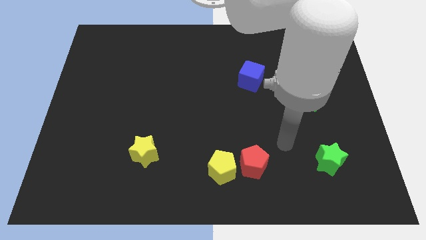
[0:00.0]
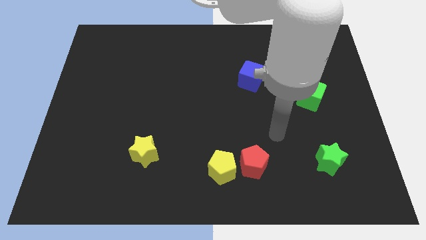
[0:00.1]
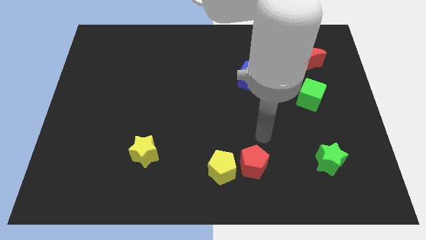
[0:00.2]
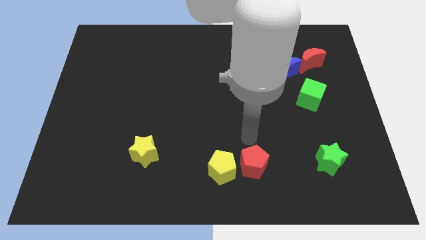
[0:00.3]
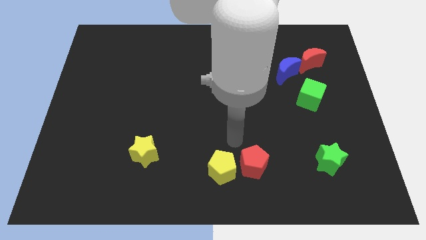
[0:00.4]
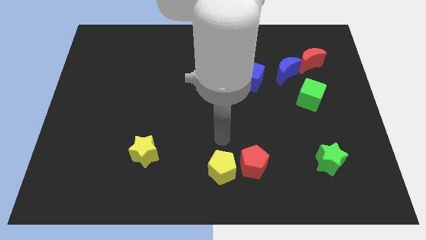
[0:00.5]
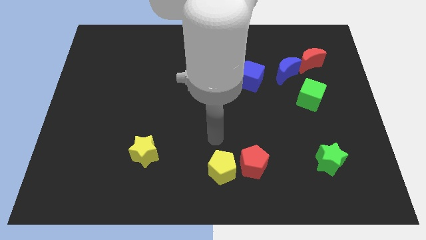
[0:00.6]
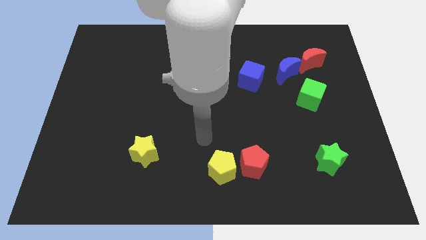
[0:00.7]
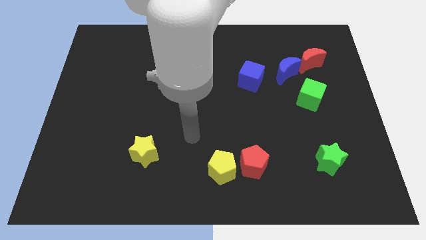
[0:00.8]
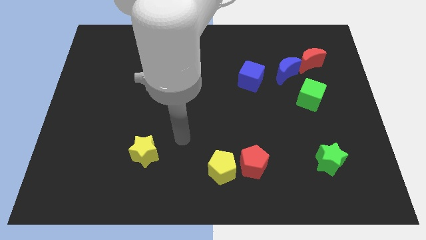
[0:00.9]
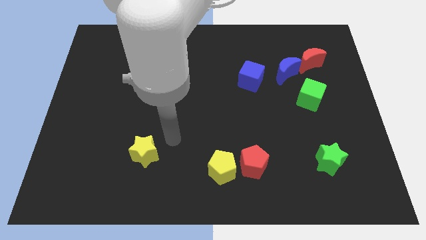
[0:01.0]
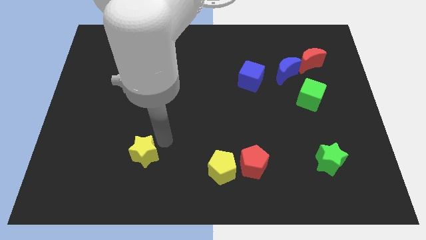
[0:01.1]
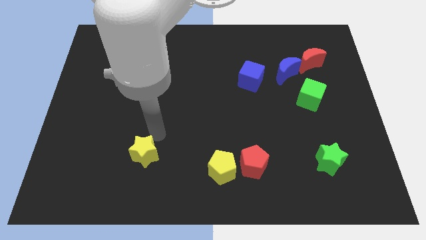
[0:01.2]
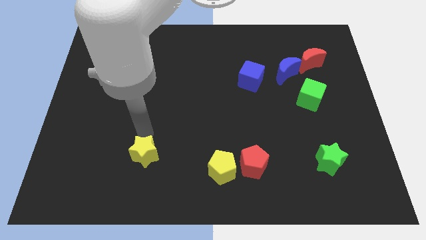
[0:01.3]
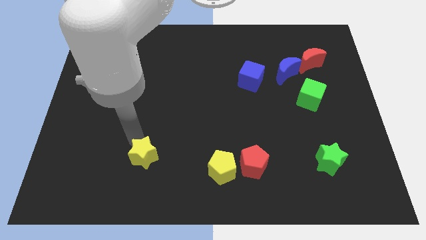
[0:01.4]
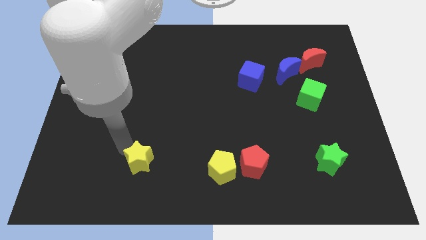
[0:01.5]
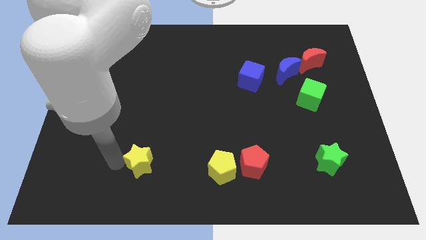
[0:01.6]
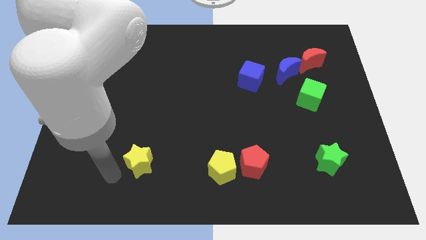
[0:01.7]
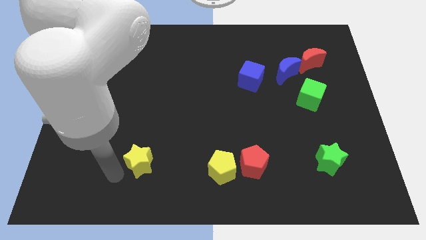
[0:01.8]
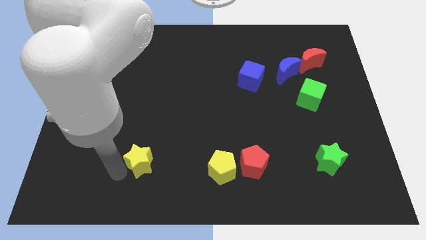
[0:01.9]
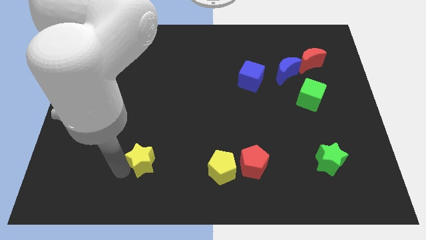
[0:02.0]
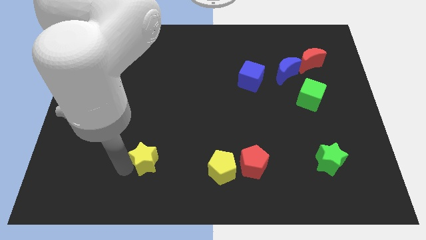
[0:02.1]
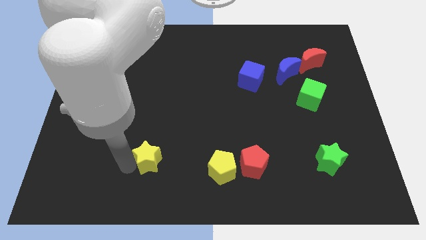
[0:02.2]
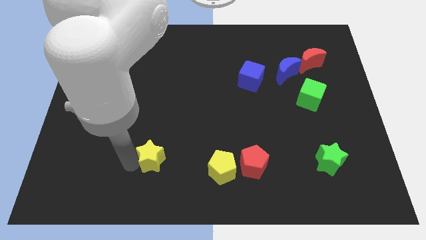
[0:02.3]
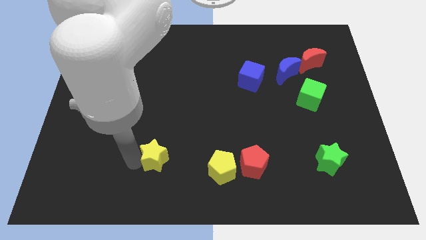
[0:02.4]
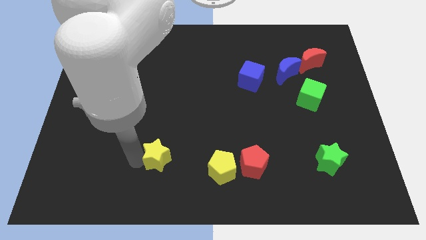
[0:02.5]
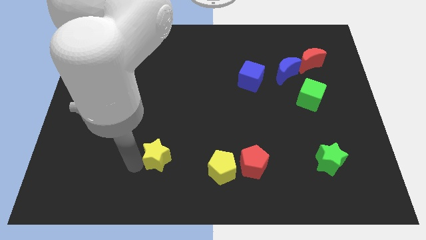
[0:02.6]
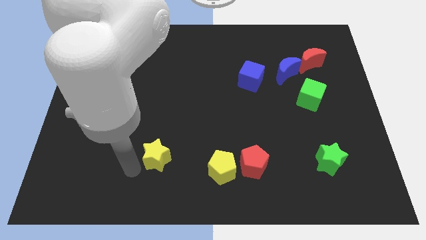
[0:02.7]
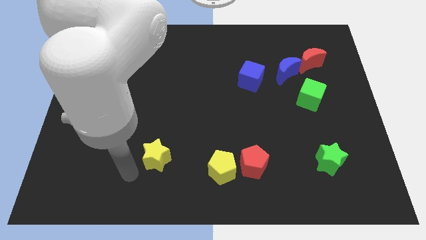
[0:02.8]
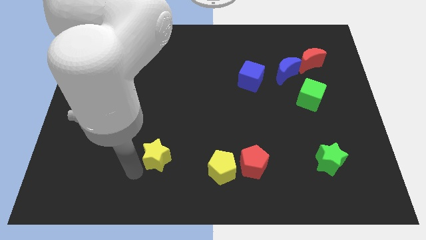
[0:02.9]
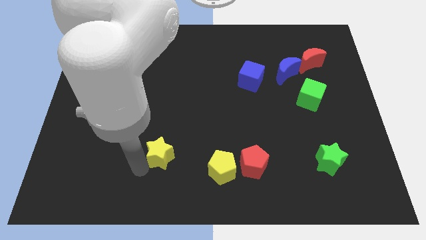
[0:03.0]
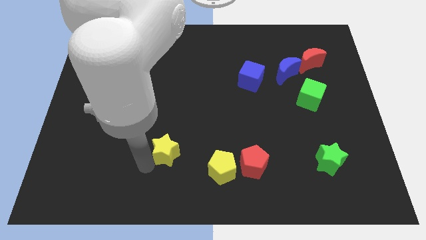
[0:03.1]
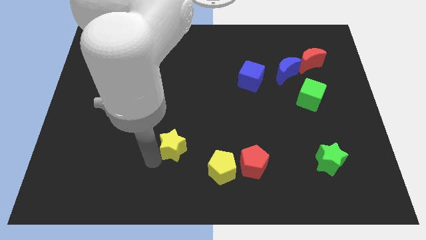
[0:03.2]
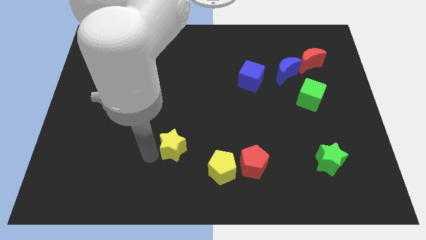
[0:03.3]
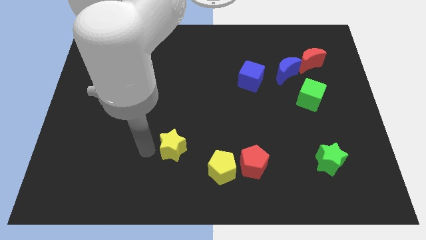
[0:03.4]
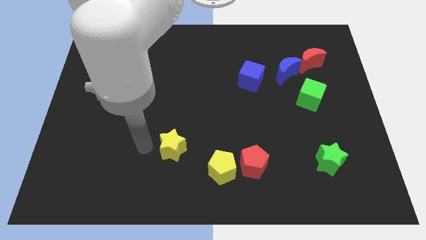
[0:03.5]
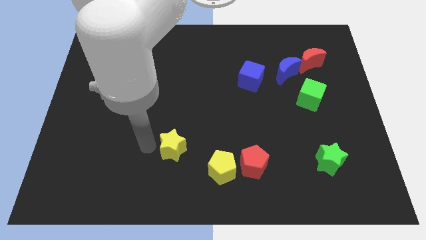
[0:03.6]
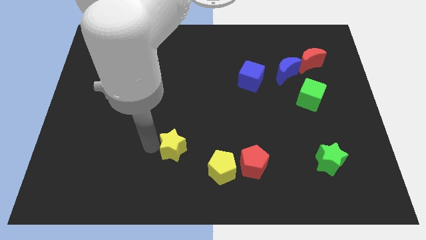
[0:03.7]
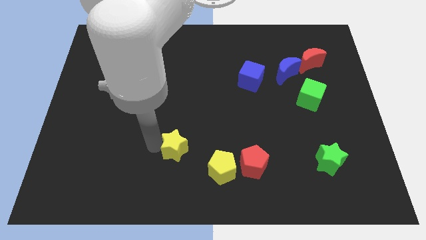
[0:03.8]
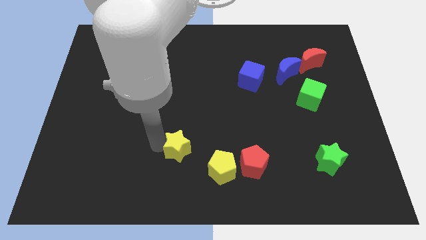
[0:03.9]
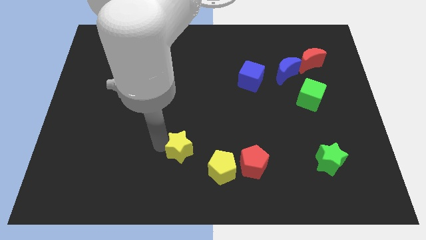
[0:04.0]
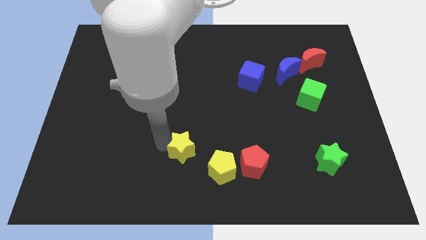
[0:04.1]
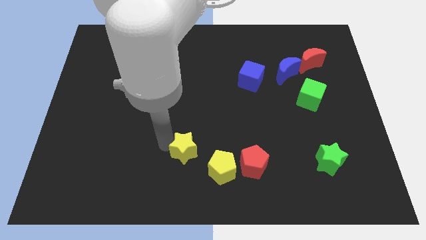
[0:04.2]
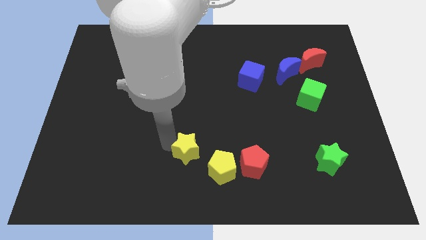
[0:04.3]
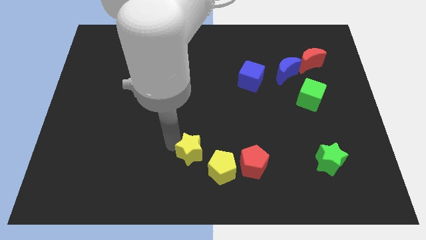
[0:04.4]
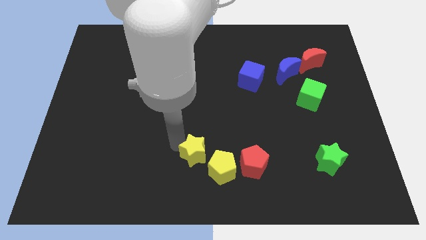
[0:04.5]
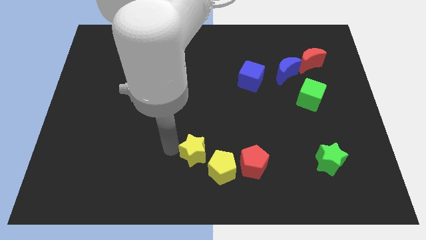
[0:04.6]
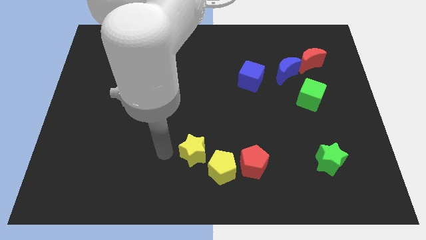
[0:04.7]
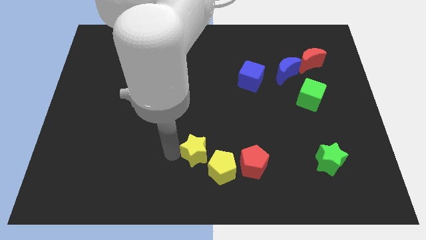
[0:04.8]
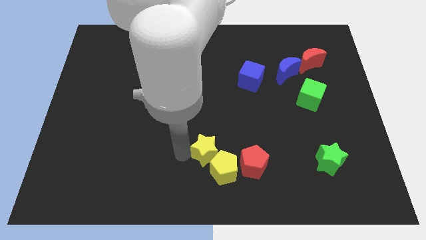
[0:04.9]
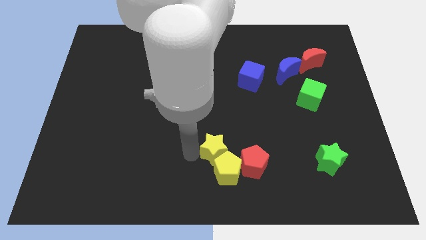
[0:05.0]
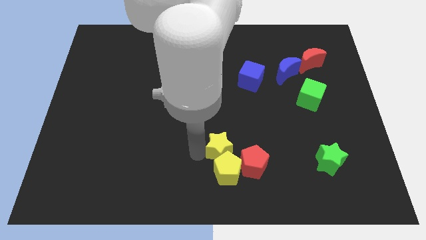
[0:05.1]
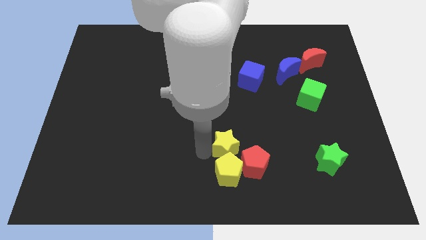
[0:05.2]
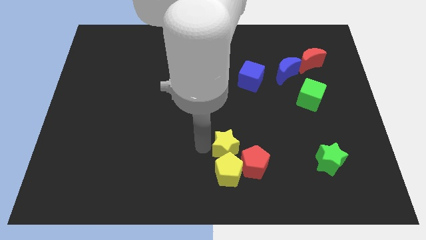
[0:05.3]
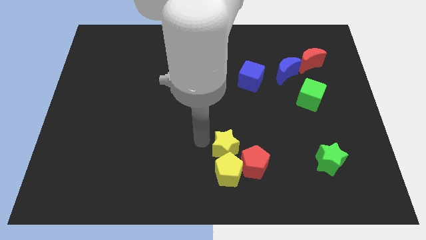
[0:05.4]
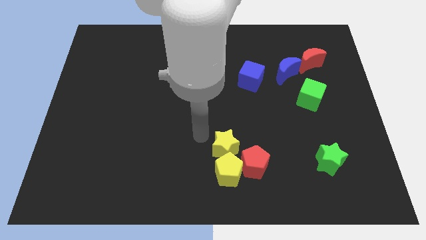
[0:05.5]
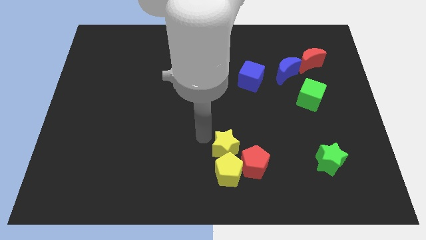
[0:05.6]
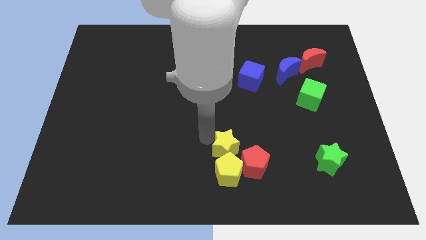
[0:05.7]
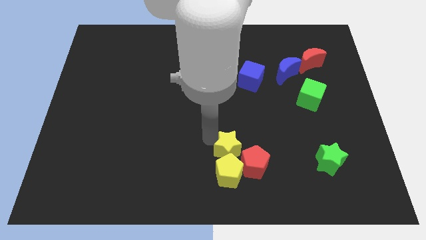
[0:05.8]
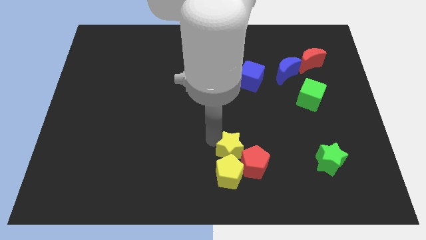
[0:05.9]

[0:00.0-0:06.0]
push the yellow star next to the red pentagon

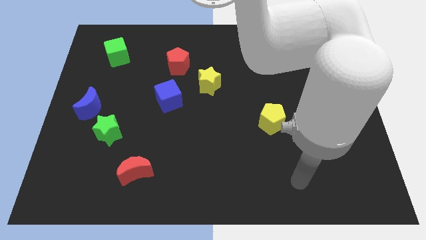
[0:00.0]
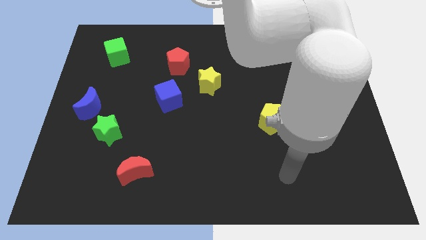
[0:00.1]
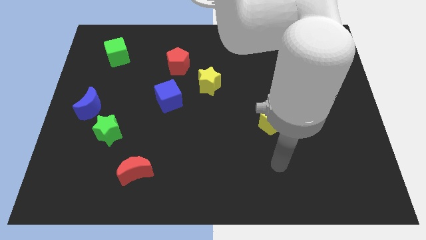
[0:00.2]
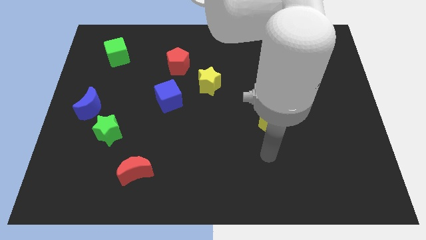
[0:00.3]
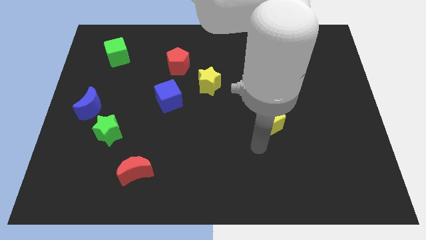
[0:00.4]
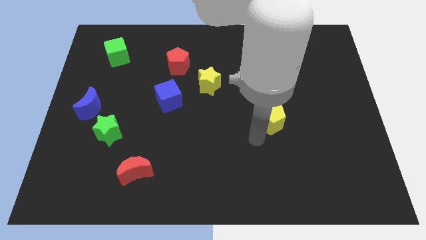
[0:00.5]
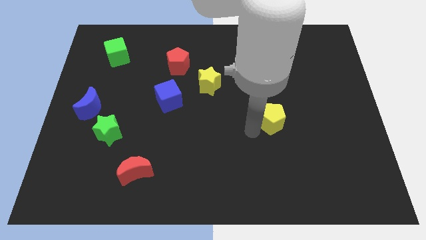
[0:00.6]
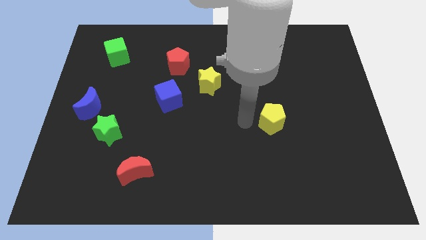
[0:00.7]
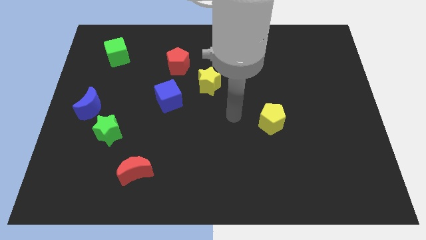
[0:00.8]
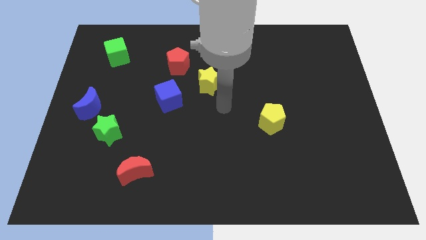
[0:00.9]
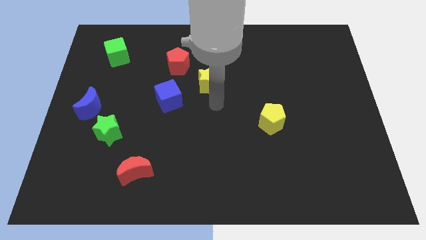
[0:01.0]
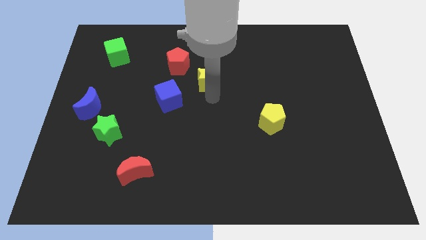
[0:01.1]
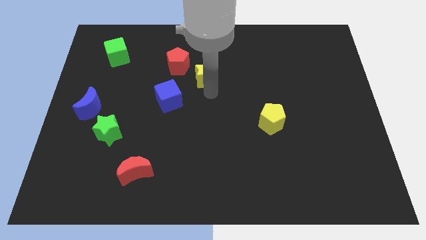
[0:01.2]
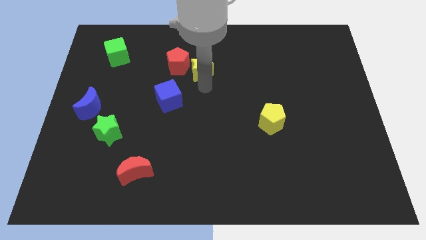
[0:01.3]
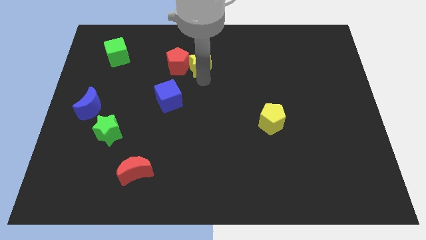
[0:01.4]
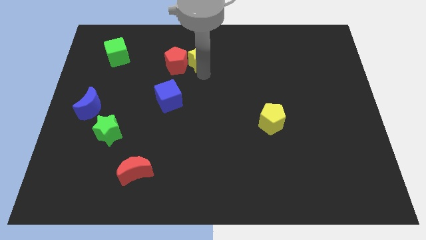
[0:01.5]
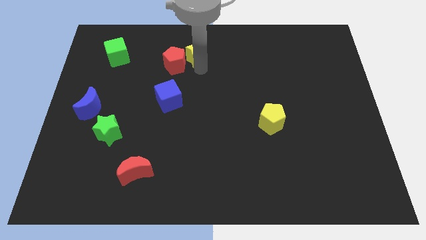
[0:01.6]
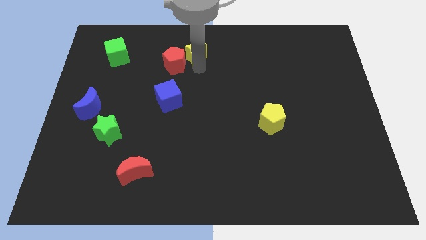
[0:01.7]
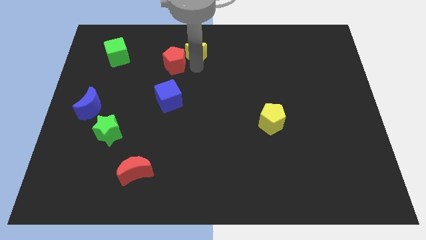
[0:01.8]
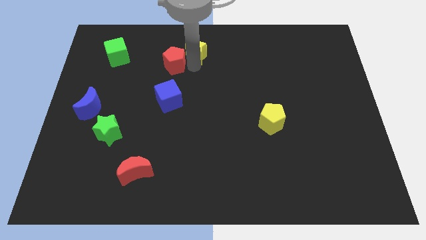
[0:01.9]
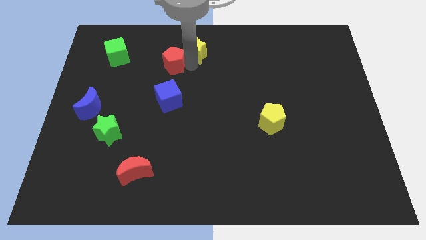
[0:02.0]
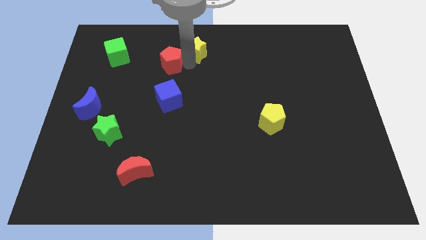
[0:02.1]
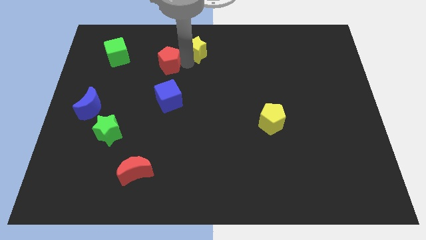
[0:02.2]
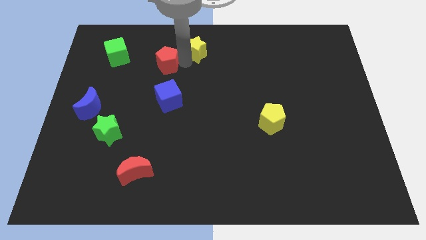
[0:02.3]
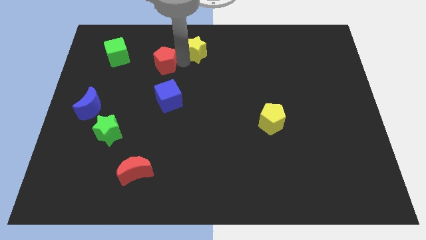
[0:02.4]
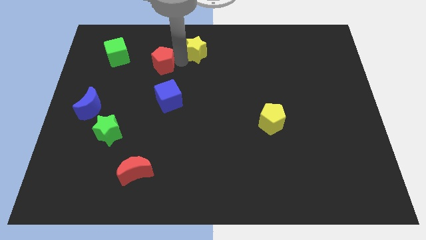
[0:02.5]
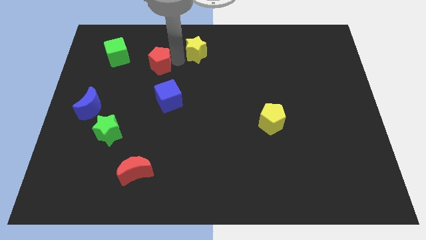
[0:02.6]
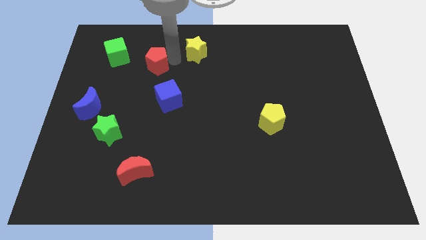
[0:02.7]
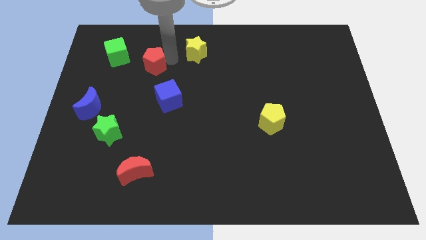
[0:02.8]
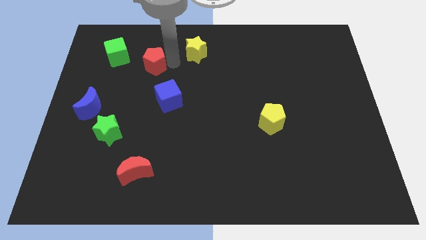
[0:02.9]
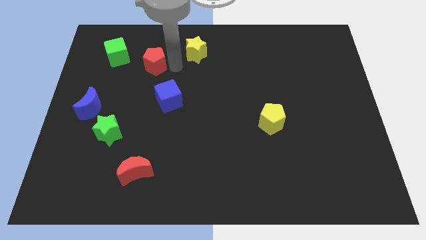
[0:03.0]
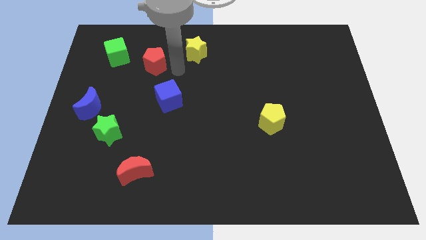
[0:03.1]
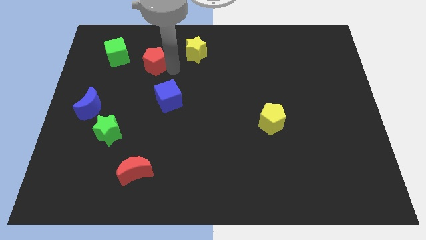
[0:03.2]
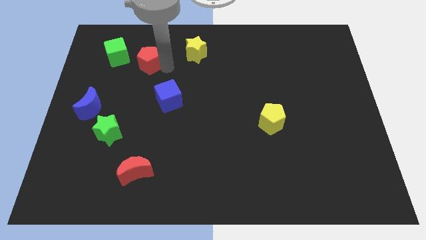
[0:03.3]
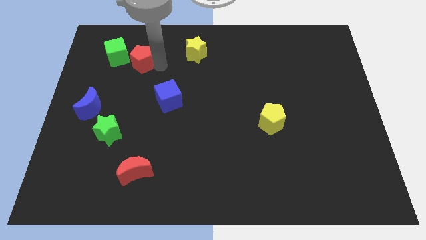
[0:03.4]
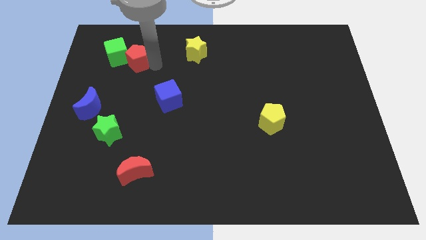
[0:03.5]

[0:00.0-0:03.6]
push the red pentagon to the green cube
